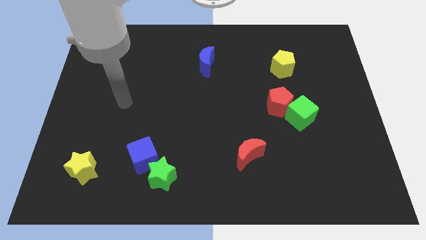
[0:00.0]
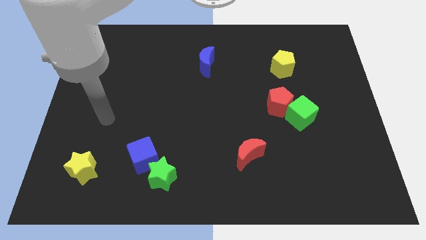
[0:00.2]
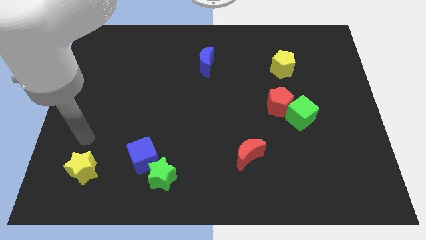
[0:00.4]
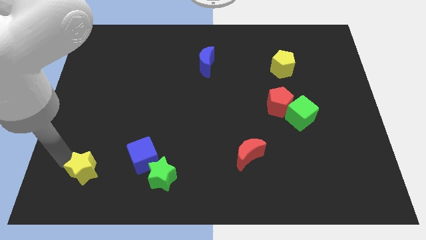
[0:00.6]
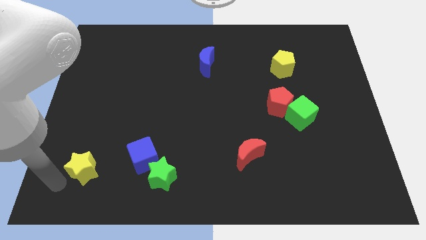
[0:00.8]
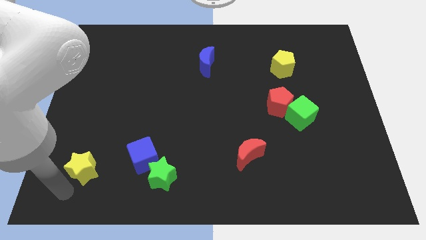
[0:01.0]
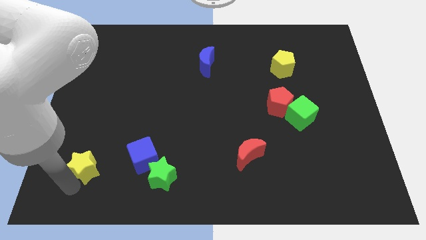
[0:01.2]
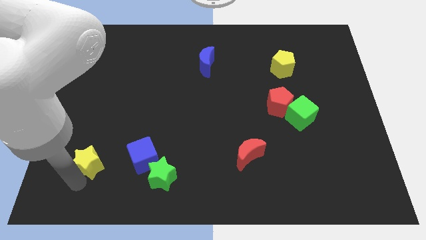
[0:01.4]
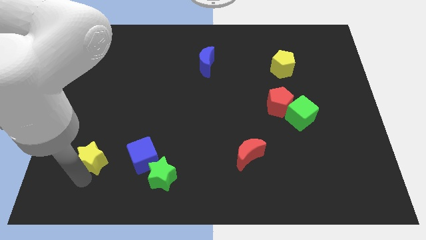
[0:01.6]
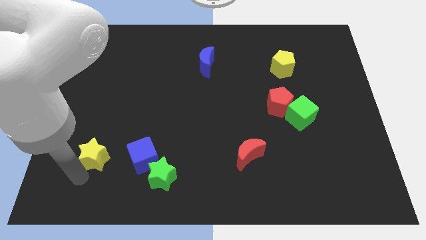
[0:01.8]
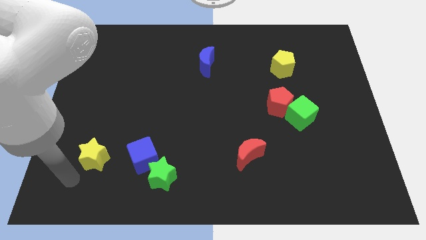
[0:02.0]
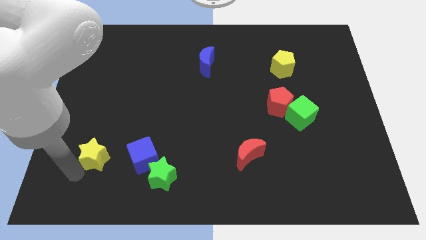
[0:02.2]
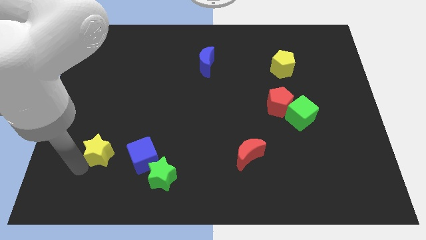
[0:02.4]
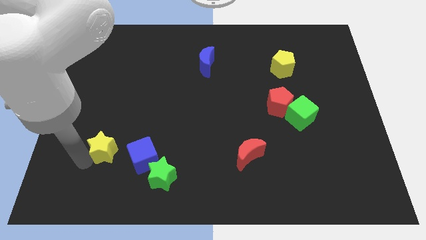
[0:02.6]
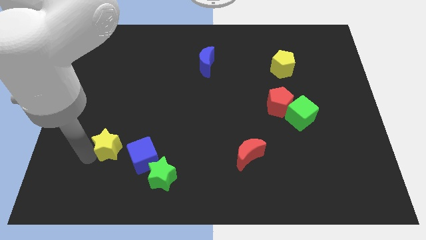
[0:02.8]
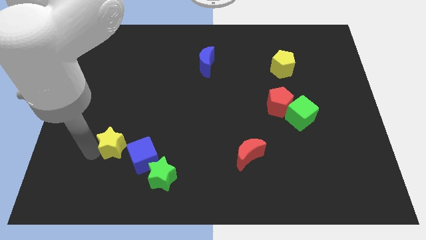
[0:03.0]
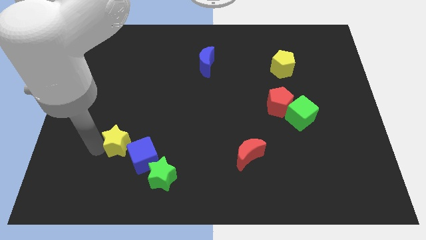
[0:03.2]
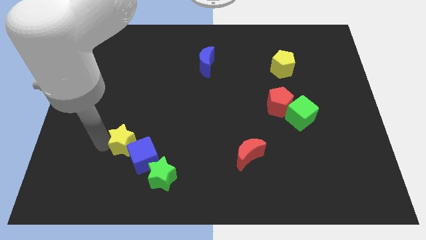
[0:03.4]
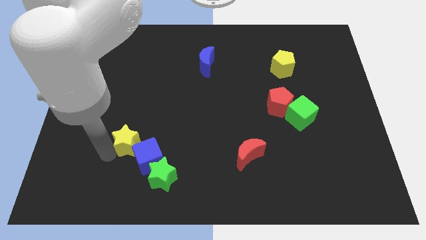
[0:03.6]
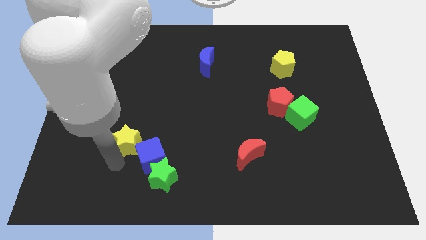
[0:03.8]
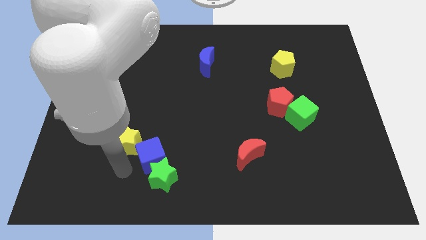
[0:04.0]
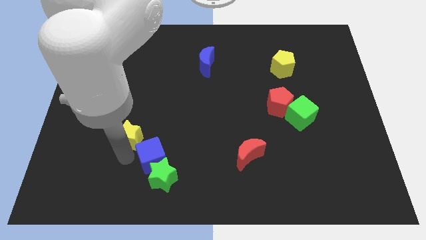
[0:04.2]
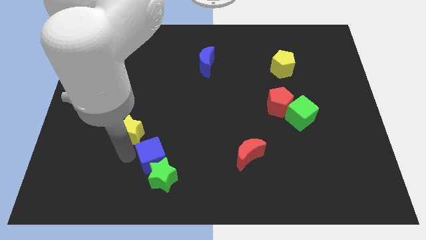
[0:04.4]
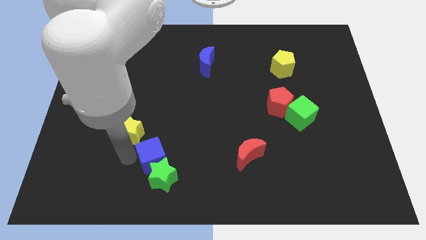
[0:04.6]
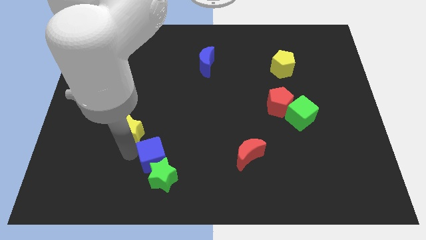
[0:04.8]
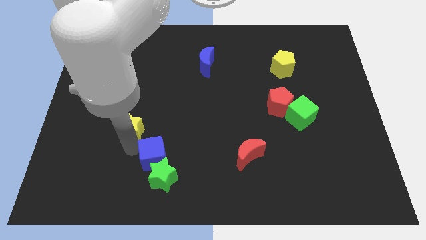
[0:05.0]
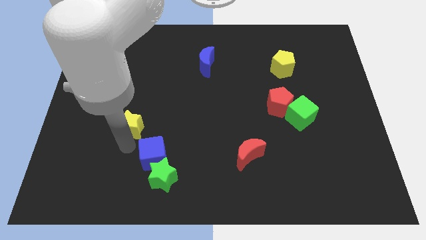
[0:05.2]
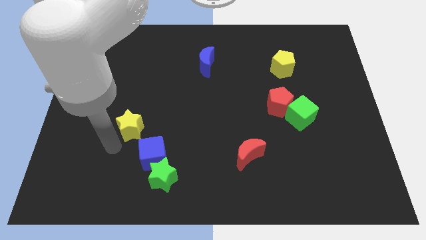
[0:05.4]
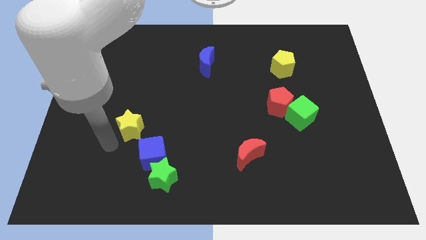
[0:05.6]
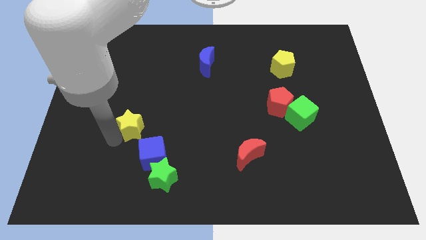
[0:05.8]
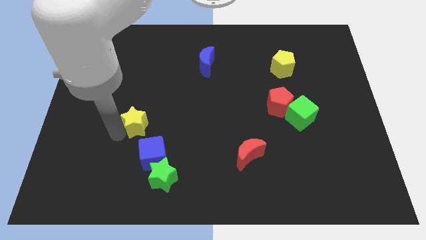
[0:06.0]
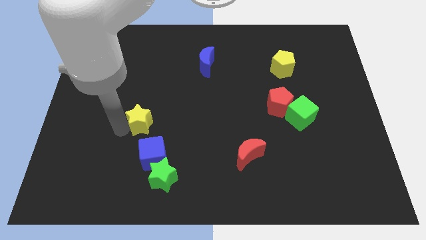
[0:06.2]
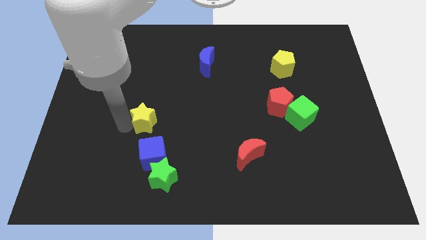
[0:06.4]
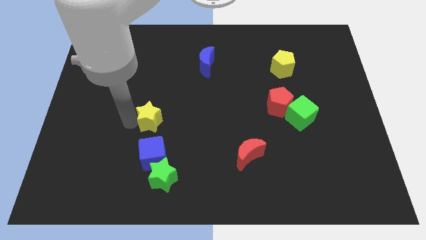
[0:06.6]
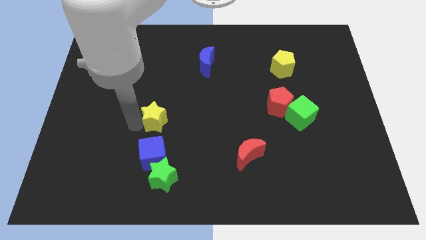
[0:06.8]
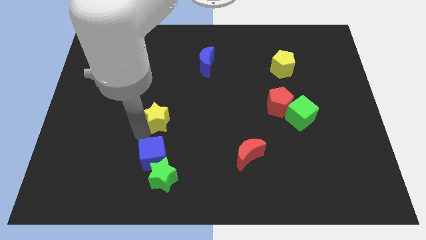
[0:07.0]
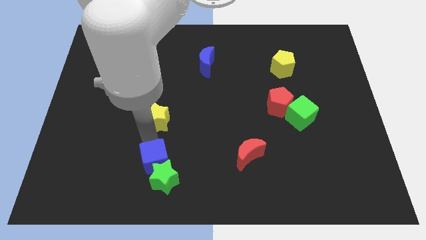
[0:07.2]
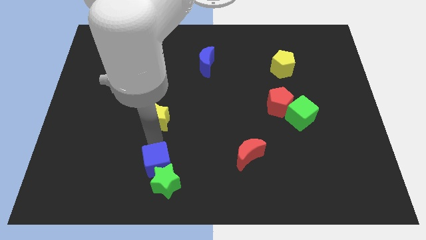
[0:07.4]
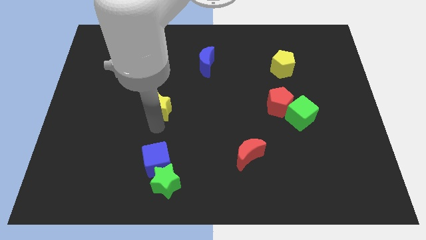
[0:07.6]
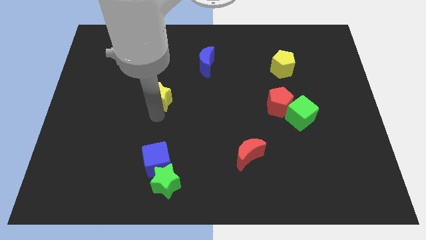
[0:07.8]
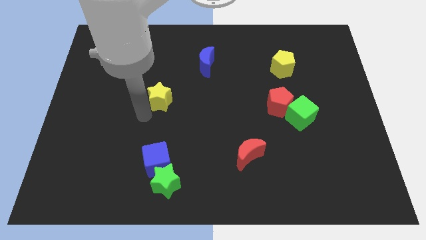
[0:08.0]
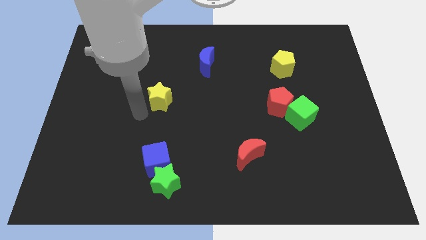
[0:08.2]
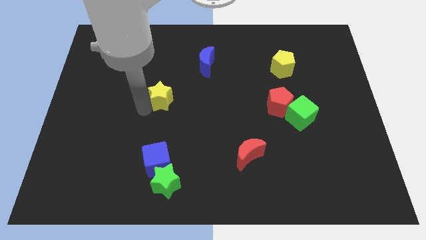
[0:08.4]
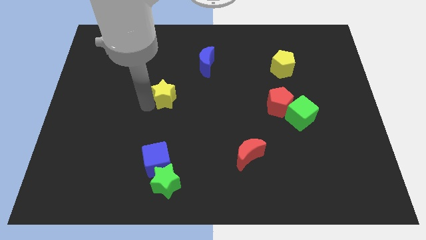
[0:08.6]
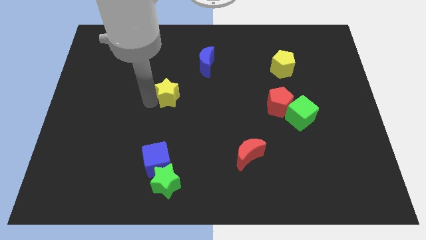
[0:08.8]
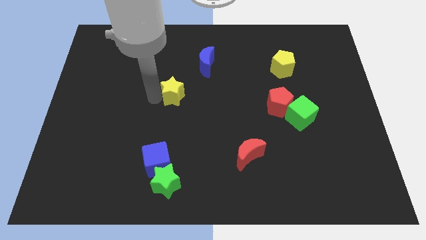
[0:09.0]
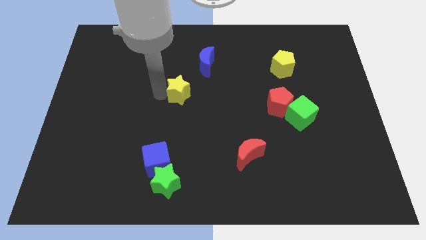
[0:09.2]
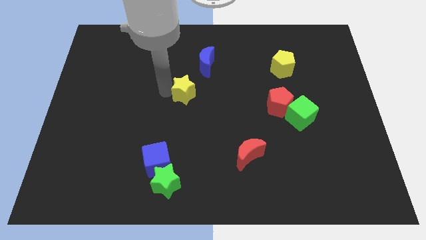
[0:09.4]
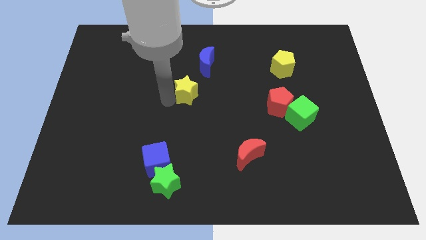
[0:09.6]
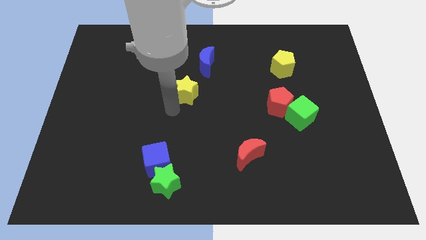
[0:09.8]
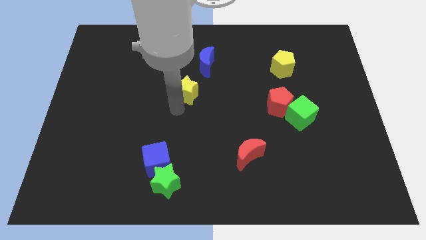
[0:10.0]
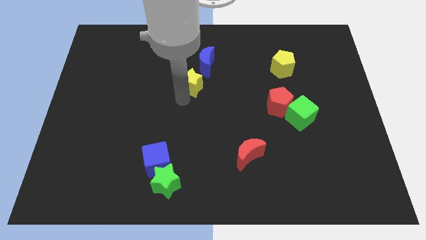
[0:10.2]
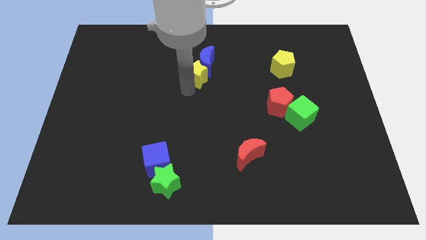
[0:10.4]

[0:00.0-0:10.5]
slide the yellow star to the blue moon

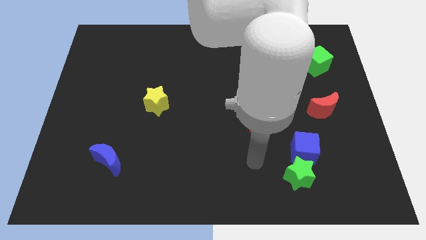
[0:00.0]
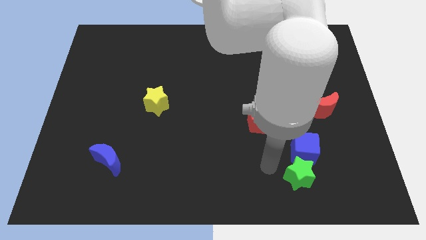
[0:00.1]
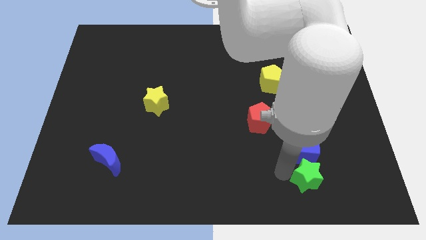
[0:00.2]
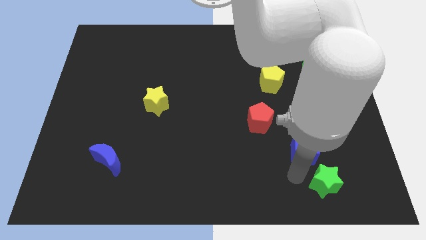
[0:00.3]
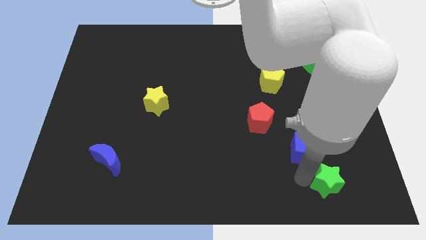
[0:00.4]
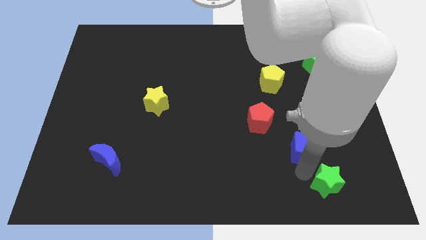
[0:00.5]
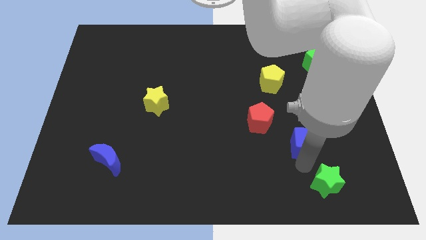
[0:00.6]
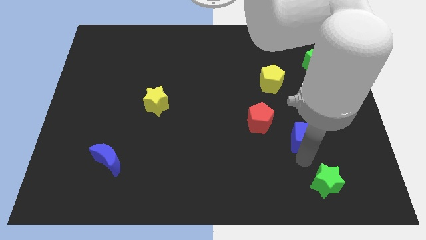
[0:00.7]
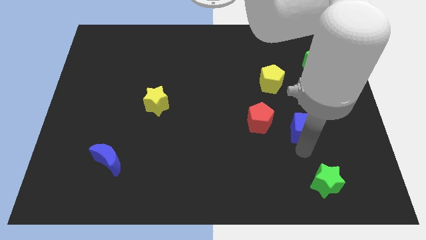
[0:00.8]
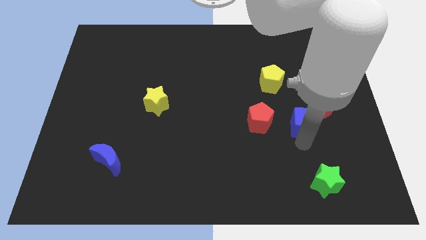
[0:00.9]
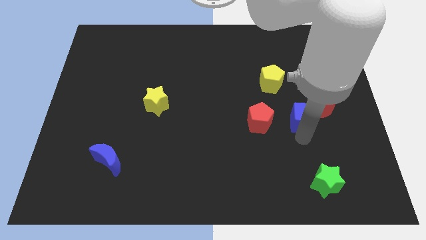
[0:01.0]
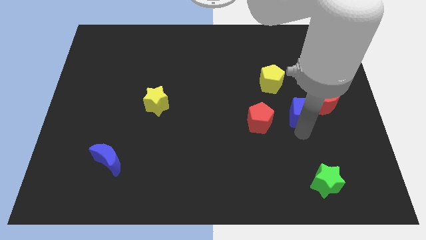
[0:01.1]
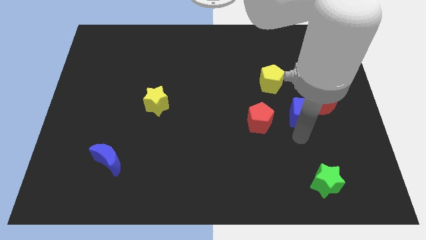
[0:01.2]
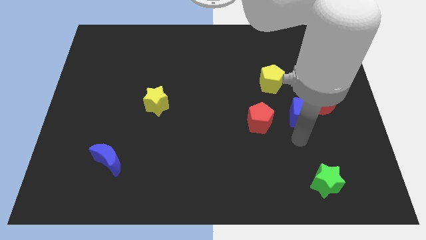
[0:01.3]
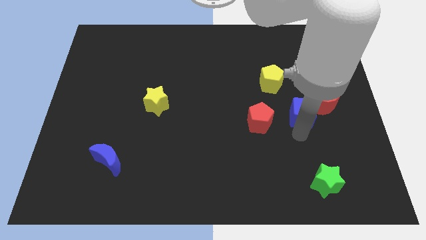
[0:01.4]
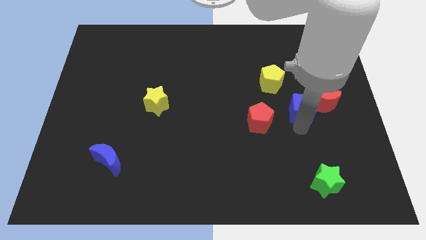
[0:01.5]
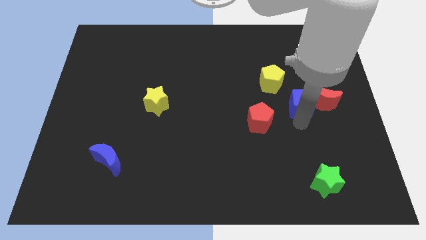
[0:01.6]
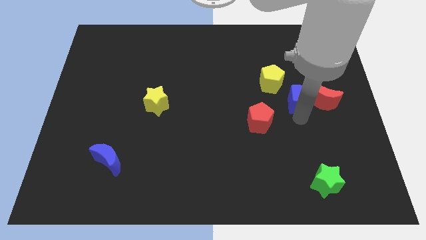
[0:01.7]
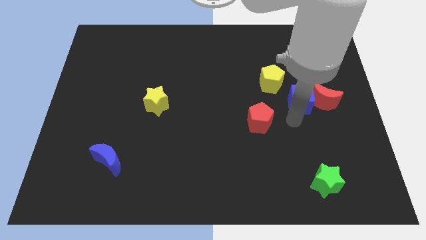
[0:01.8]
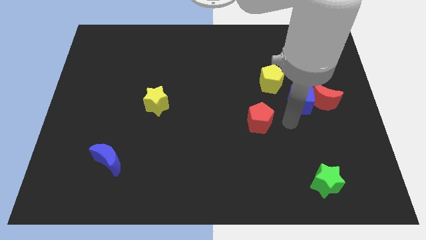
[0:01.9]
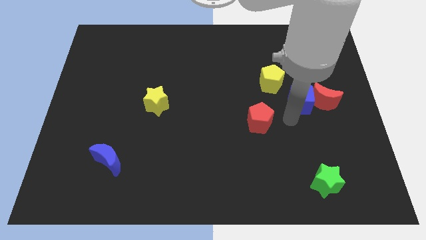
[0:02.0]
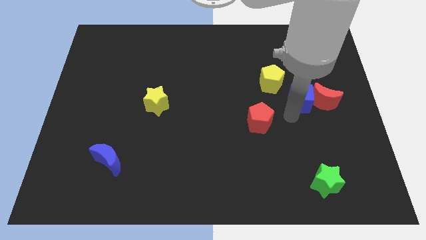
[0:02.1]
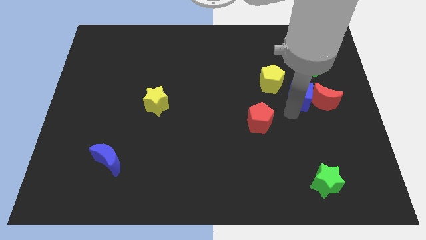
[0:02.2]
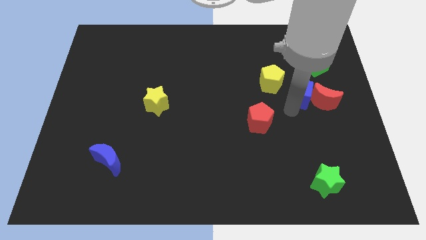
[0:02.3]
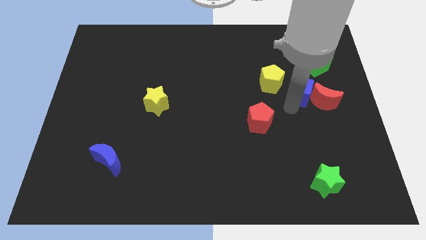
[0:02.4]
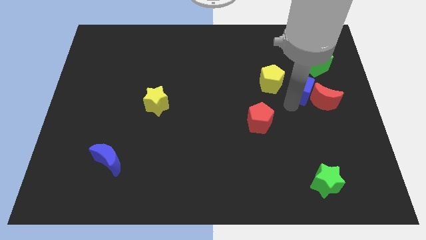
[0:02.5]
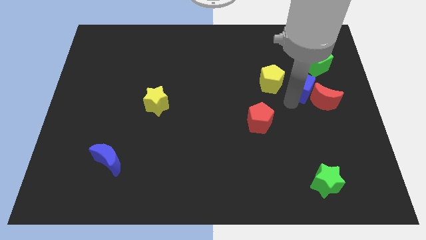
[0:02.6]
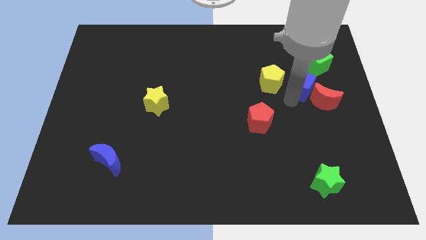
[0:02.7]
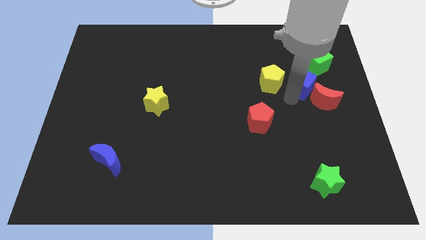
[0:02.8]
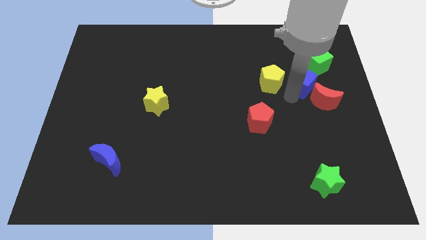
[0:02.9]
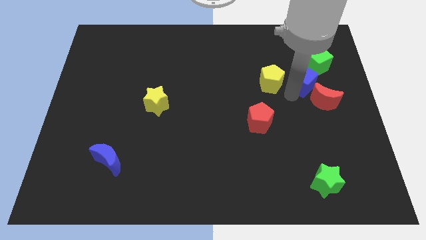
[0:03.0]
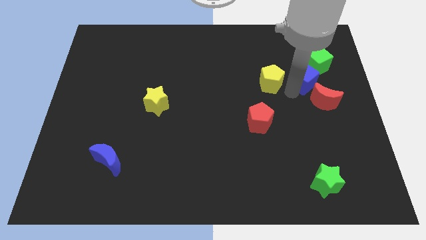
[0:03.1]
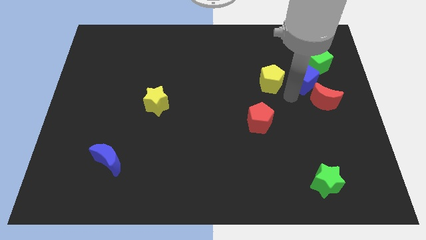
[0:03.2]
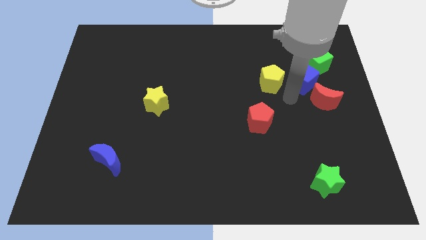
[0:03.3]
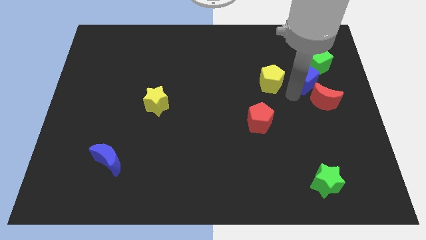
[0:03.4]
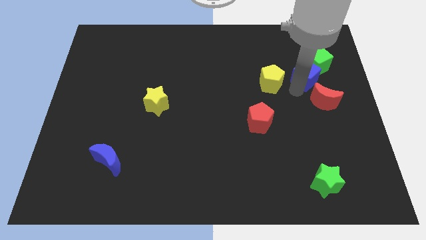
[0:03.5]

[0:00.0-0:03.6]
move the blue cube next to the green cube
